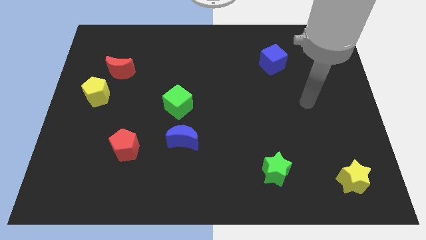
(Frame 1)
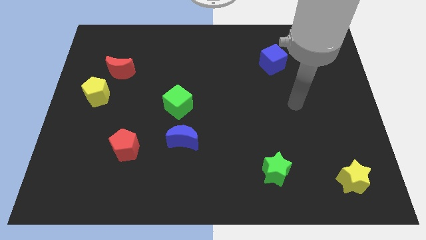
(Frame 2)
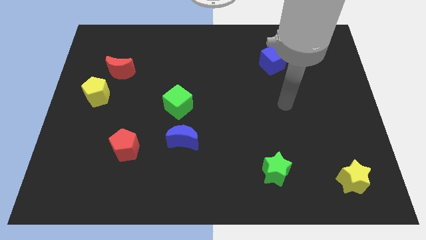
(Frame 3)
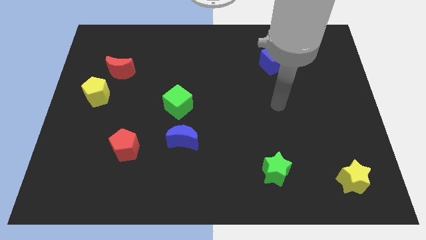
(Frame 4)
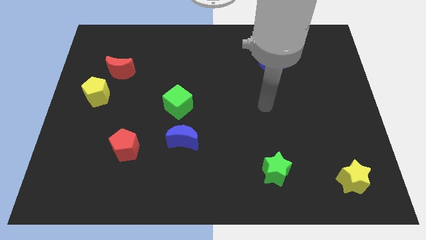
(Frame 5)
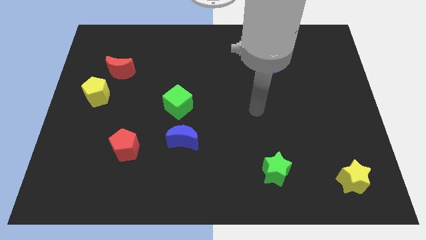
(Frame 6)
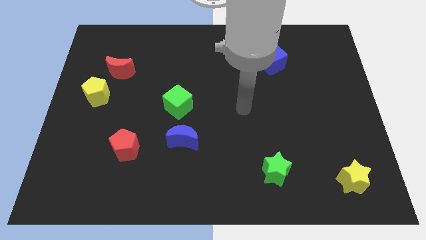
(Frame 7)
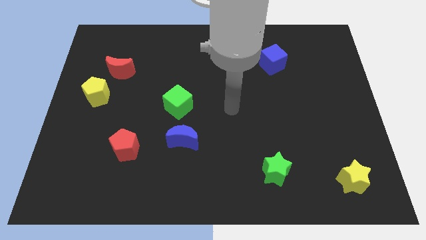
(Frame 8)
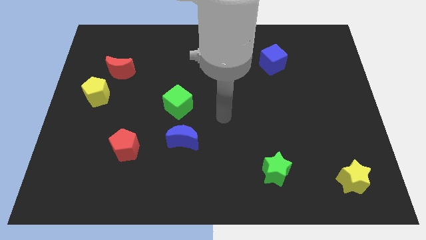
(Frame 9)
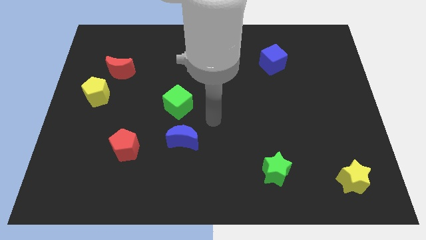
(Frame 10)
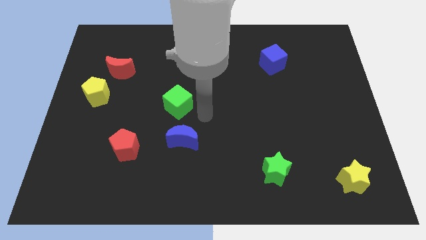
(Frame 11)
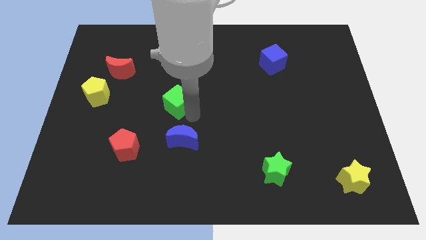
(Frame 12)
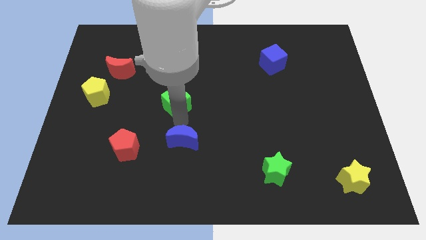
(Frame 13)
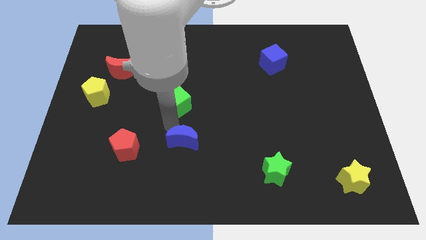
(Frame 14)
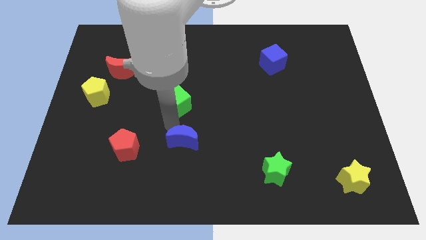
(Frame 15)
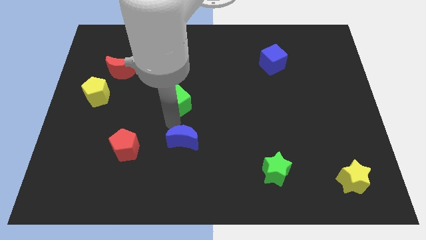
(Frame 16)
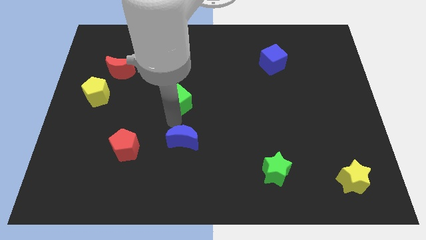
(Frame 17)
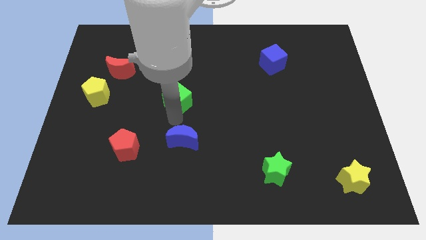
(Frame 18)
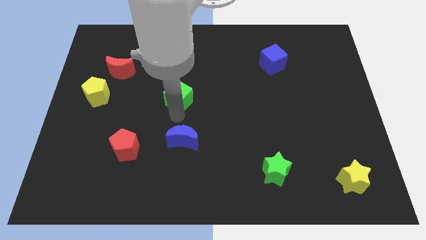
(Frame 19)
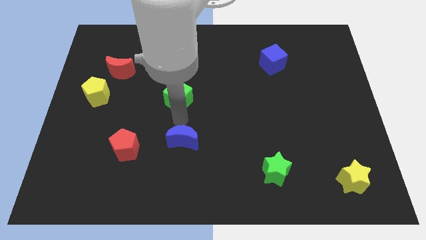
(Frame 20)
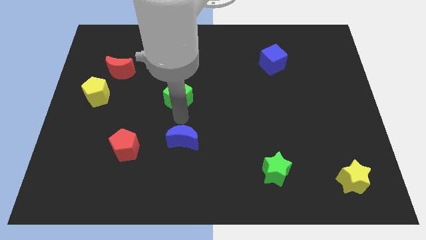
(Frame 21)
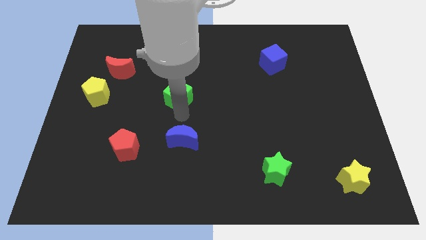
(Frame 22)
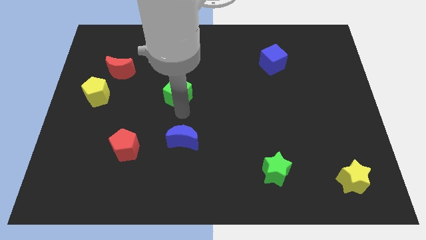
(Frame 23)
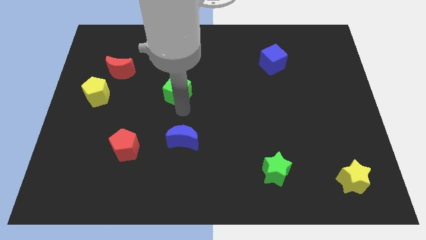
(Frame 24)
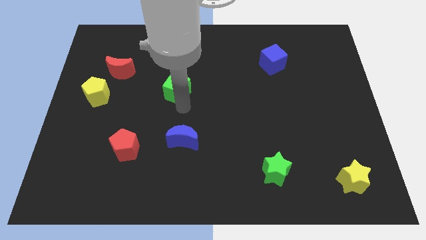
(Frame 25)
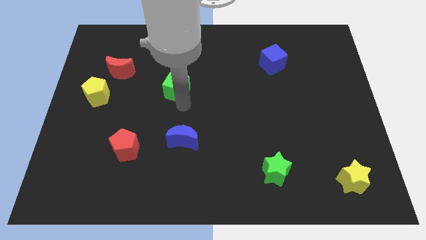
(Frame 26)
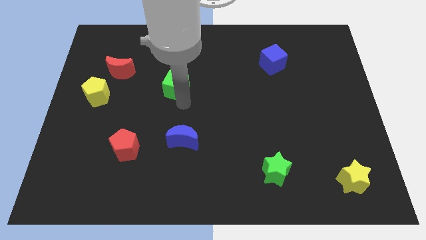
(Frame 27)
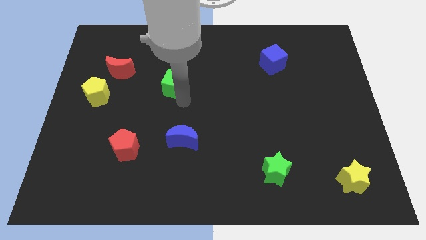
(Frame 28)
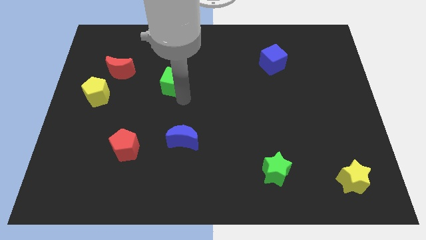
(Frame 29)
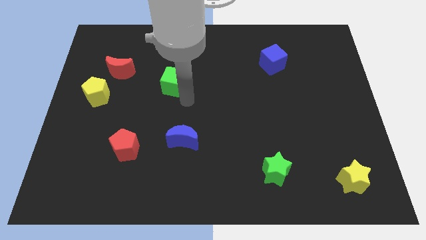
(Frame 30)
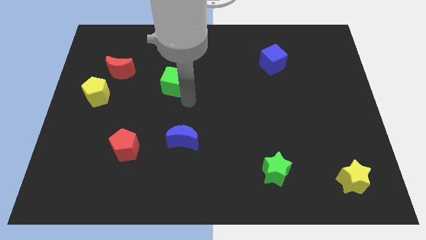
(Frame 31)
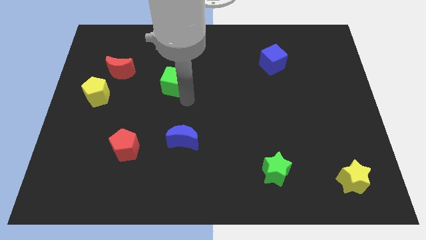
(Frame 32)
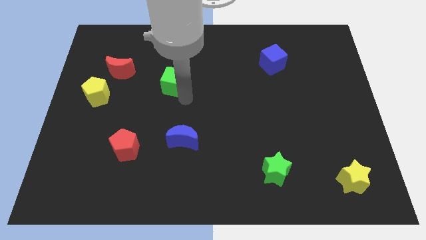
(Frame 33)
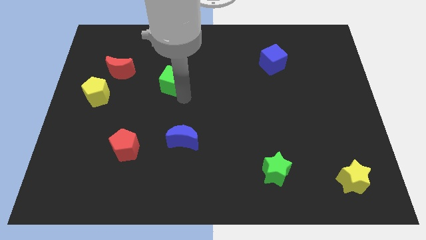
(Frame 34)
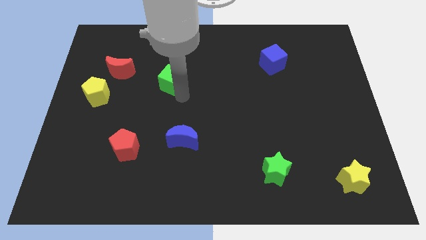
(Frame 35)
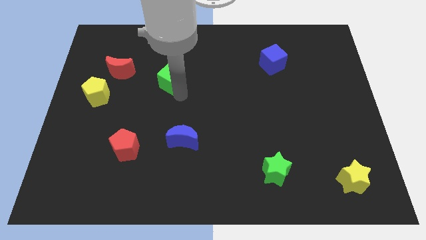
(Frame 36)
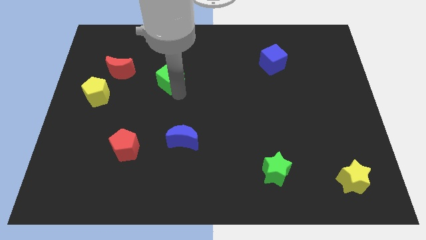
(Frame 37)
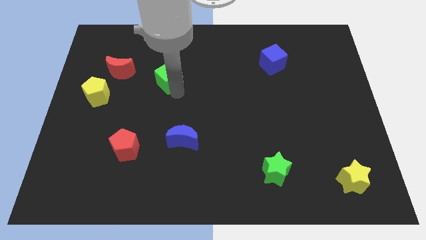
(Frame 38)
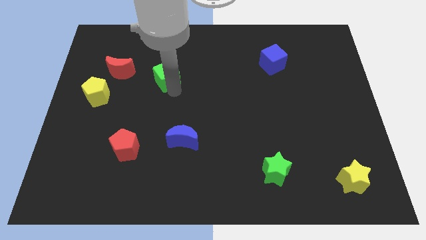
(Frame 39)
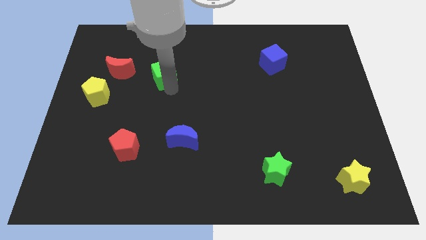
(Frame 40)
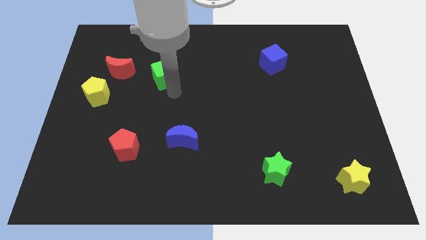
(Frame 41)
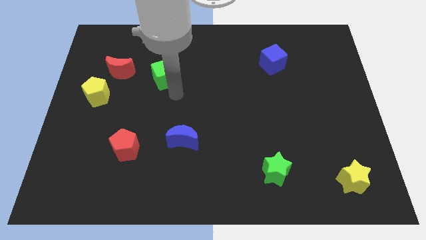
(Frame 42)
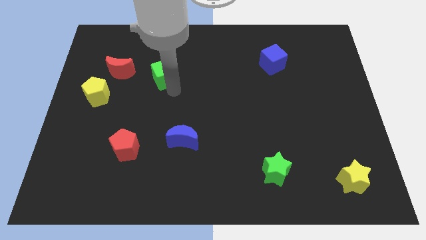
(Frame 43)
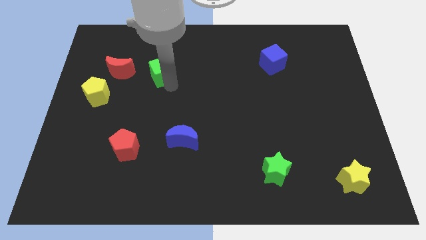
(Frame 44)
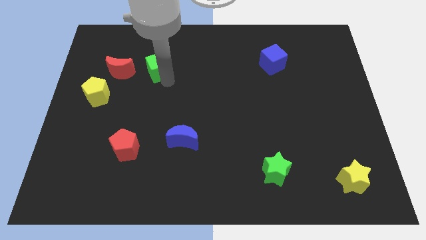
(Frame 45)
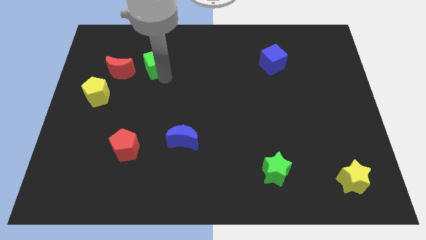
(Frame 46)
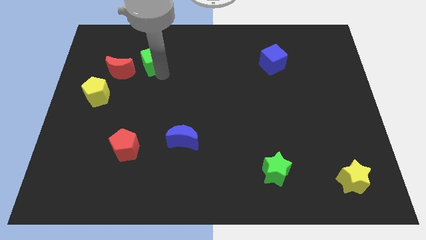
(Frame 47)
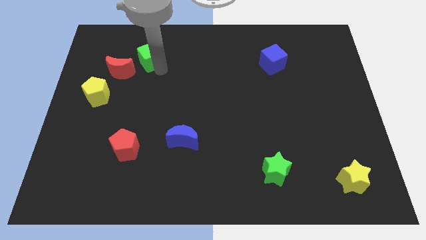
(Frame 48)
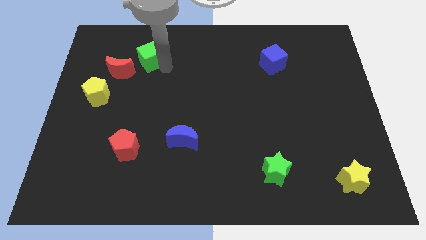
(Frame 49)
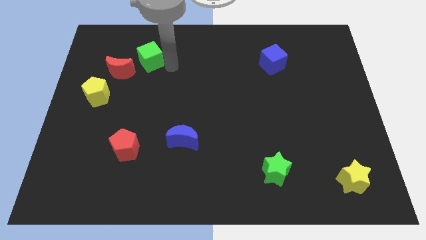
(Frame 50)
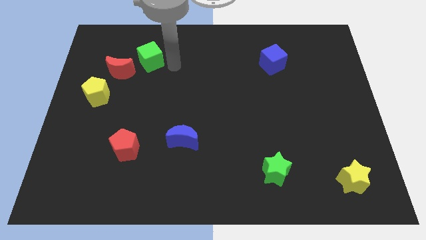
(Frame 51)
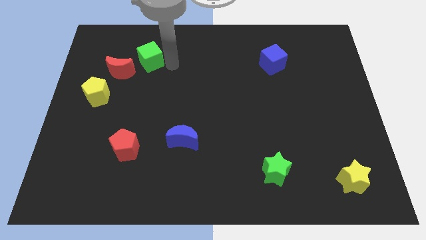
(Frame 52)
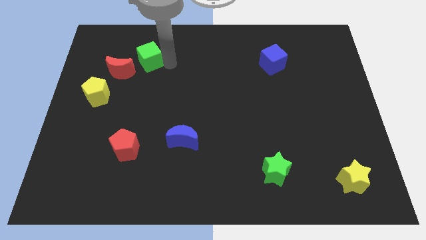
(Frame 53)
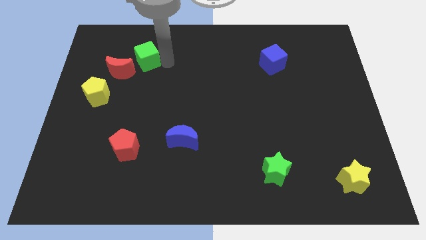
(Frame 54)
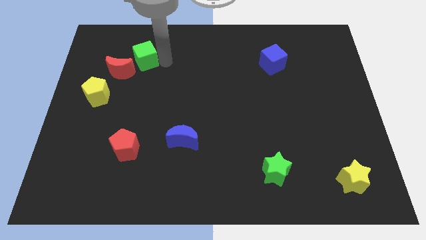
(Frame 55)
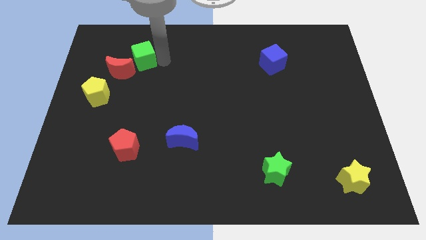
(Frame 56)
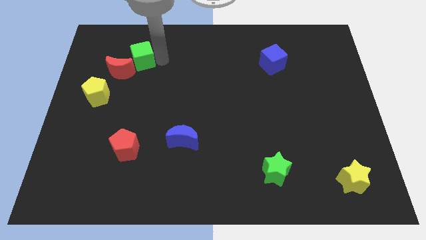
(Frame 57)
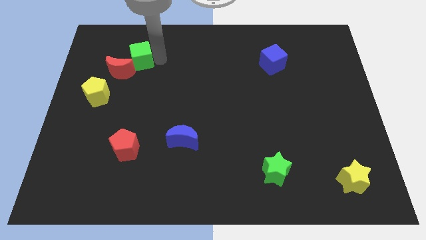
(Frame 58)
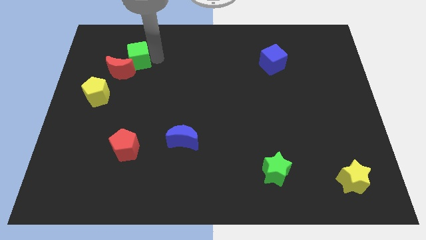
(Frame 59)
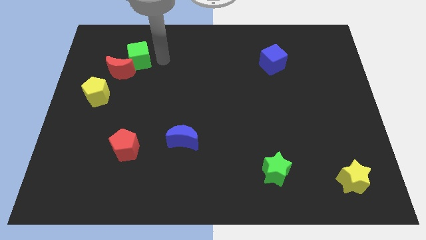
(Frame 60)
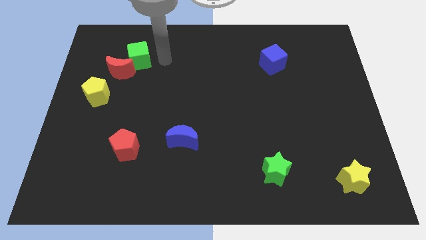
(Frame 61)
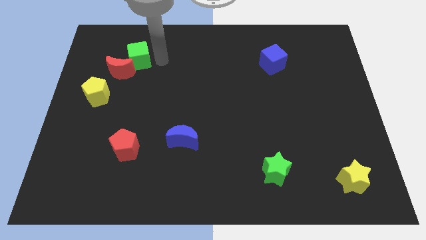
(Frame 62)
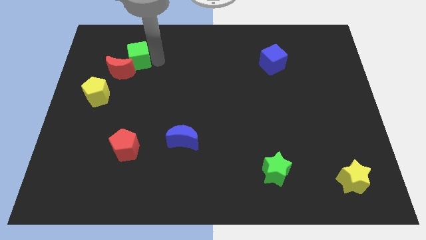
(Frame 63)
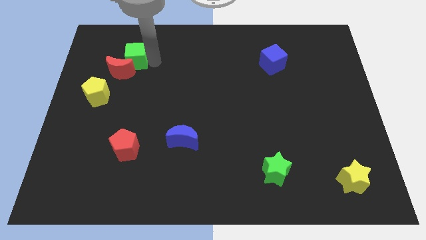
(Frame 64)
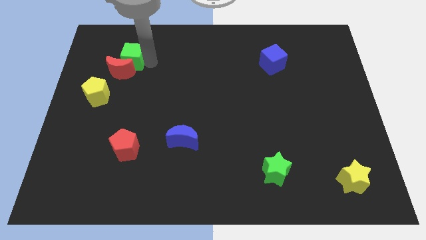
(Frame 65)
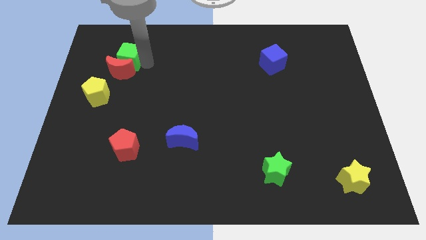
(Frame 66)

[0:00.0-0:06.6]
put the green cube to the top left side of the red moon

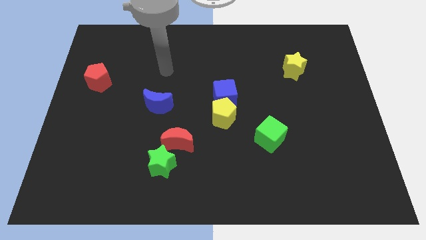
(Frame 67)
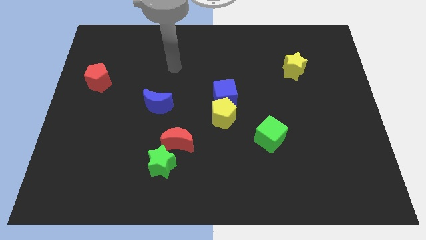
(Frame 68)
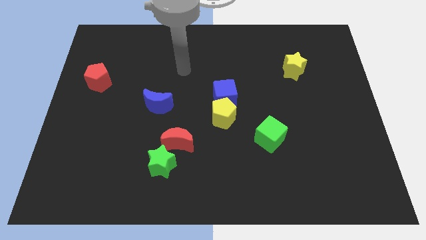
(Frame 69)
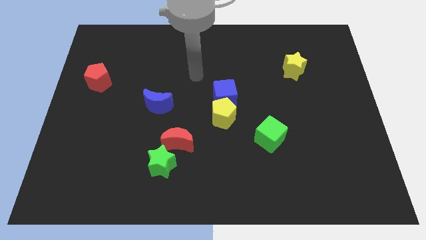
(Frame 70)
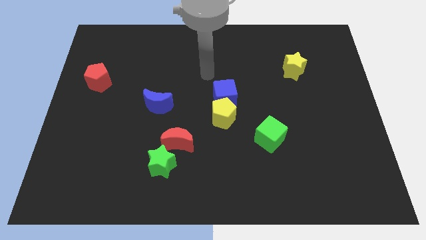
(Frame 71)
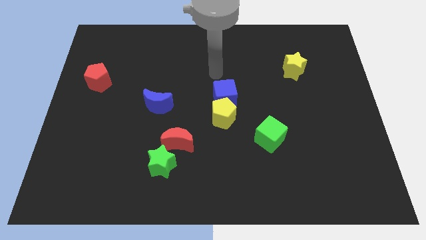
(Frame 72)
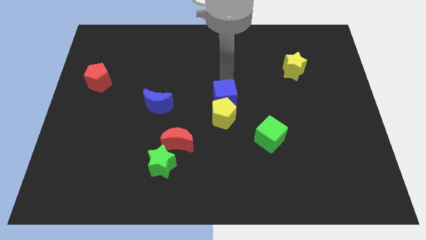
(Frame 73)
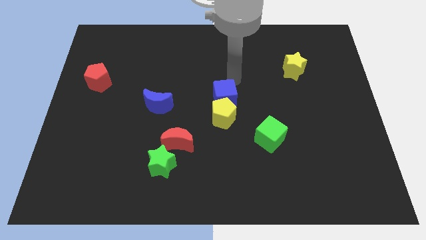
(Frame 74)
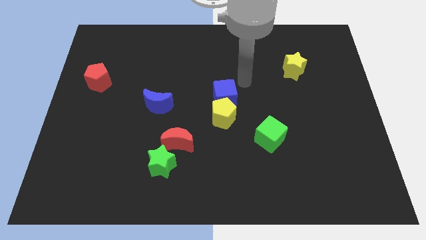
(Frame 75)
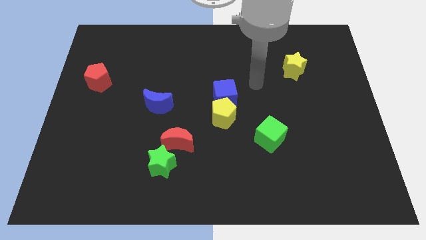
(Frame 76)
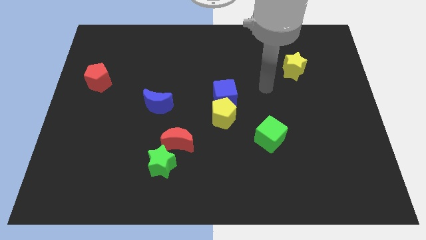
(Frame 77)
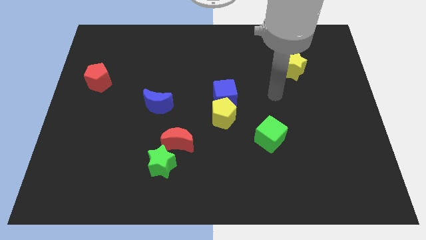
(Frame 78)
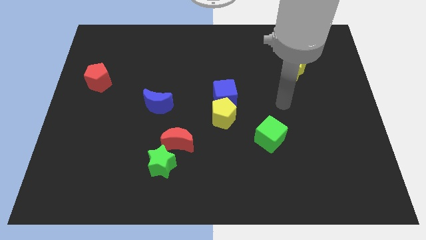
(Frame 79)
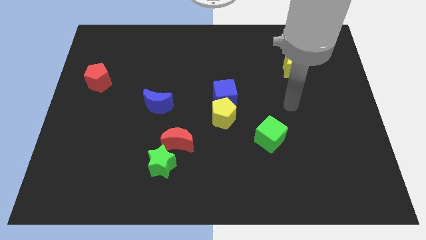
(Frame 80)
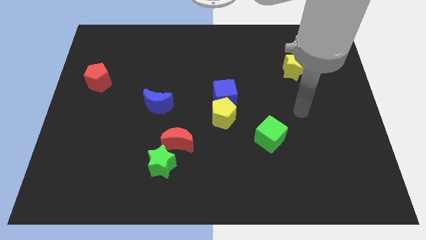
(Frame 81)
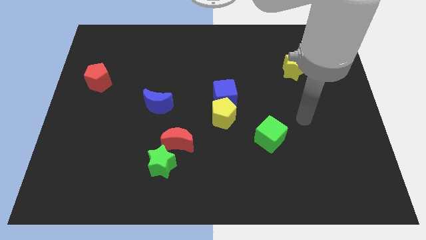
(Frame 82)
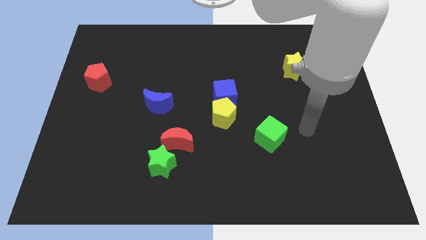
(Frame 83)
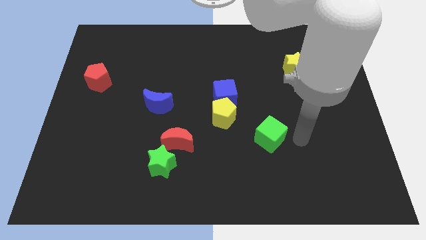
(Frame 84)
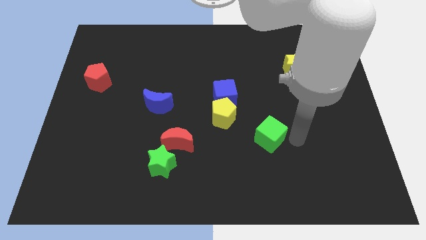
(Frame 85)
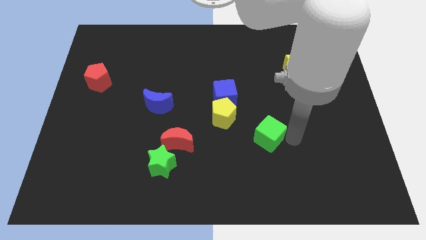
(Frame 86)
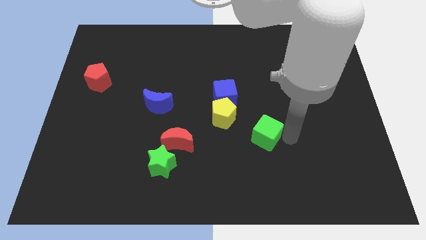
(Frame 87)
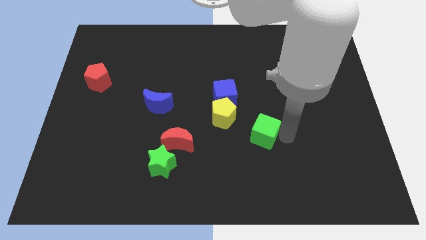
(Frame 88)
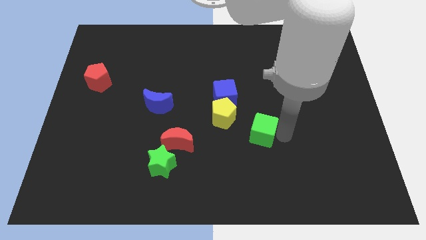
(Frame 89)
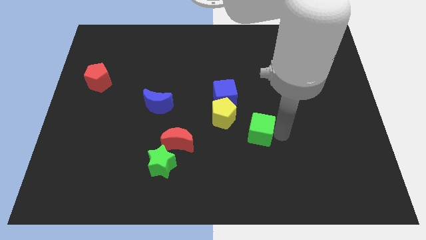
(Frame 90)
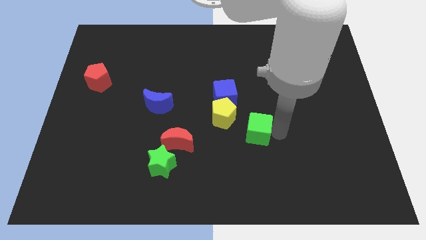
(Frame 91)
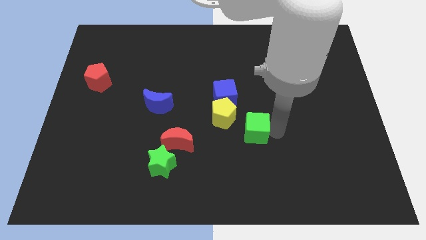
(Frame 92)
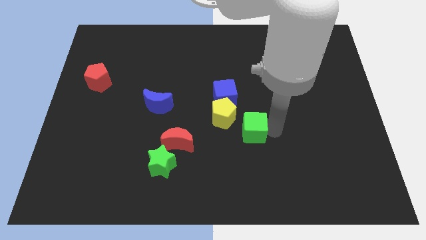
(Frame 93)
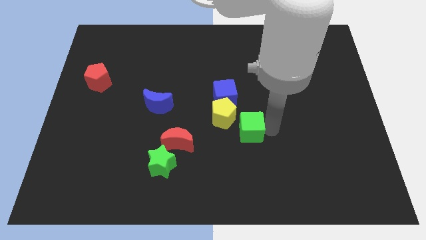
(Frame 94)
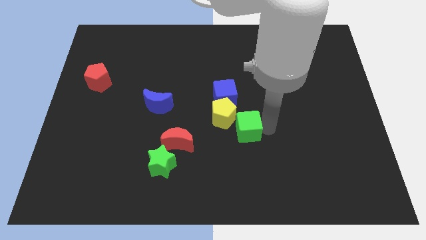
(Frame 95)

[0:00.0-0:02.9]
move the green cube below the blue cube
